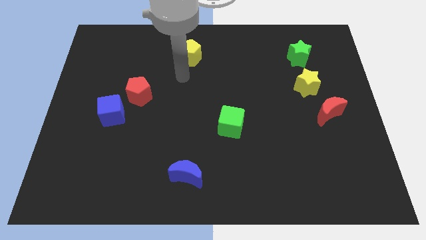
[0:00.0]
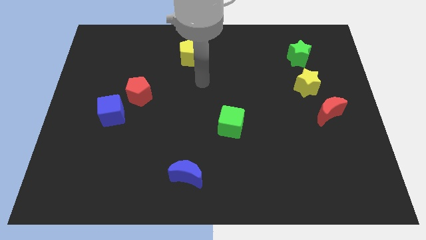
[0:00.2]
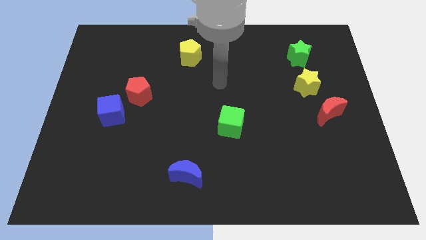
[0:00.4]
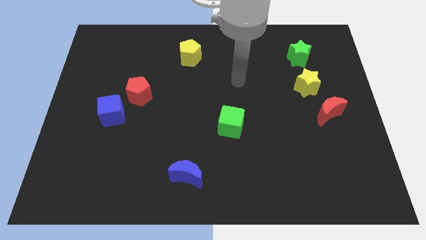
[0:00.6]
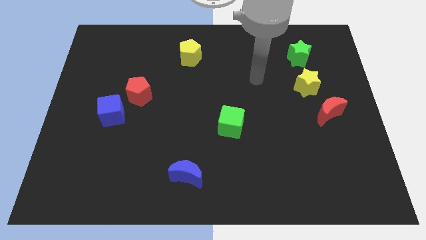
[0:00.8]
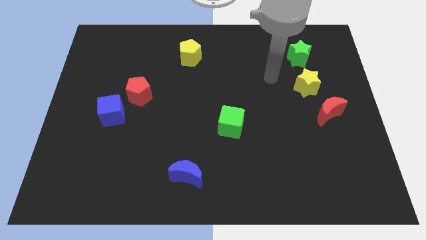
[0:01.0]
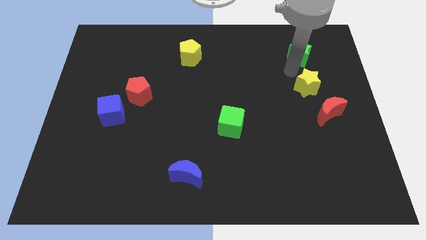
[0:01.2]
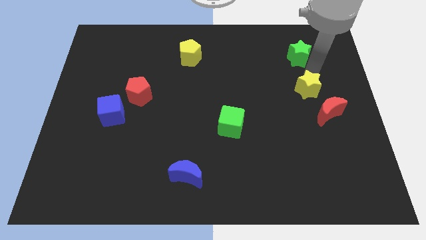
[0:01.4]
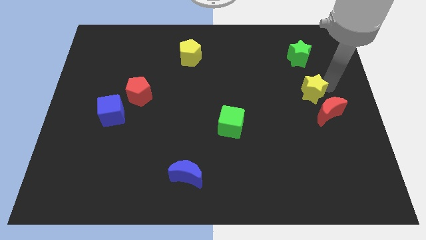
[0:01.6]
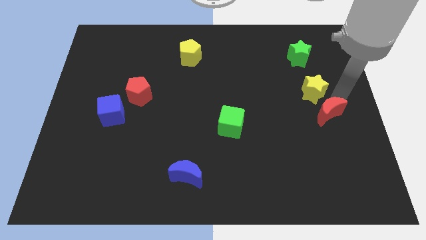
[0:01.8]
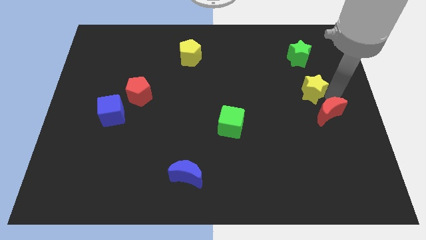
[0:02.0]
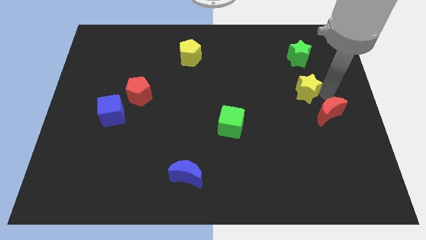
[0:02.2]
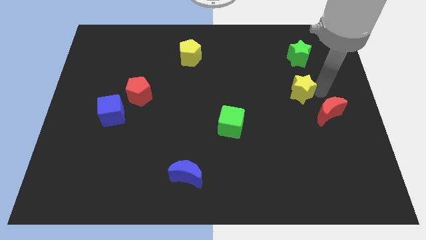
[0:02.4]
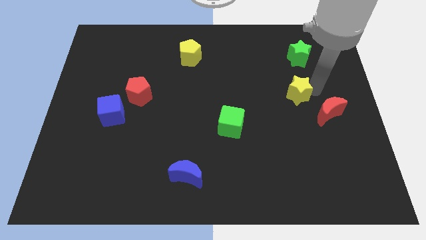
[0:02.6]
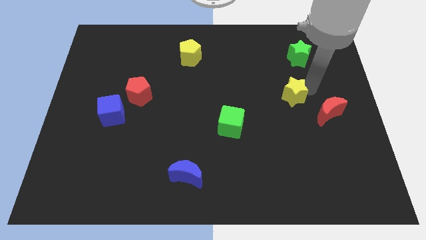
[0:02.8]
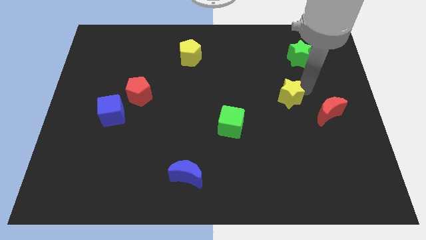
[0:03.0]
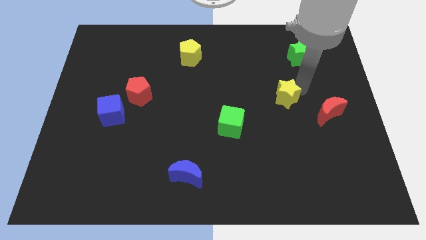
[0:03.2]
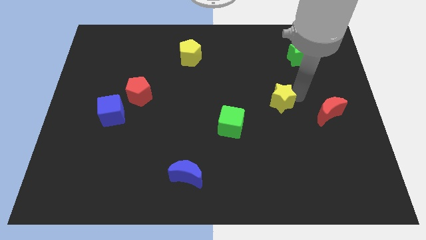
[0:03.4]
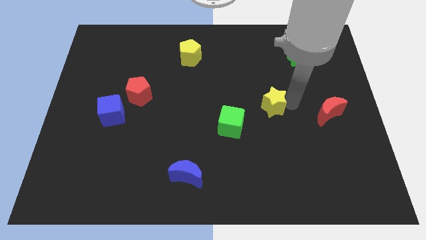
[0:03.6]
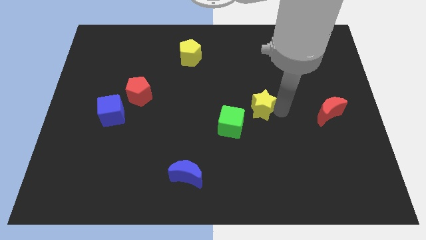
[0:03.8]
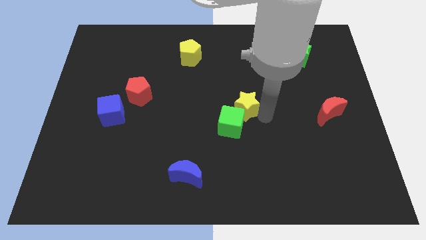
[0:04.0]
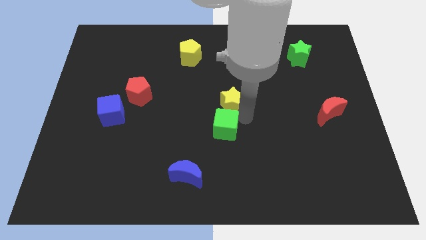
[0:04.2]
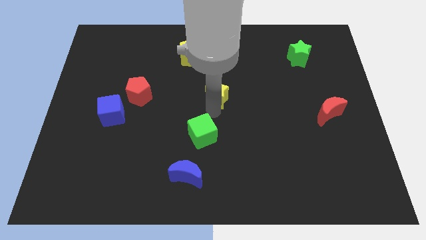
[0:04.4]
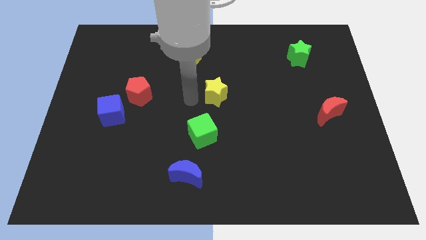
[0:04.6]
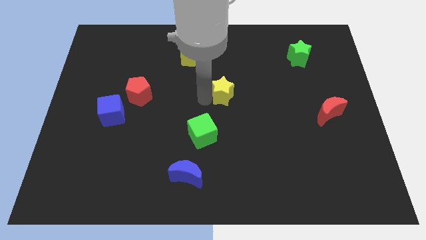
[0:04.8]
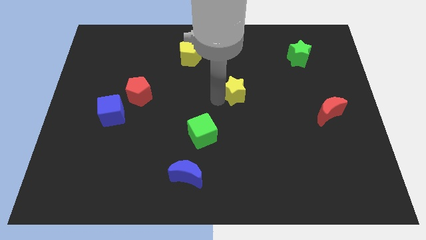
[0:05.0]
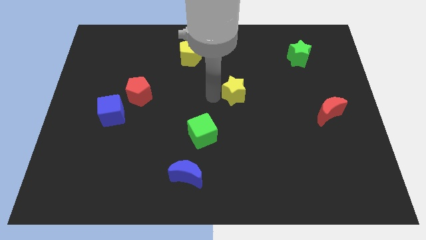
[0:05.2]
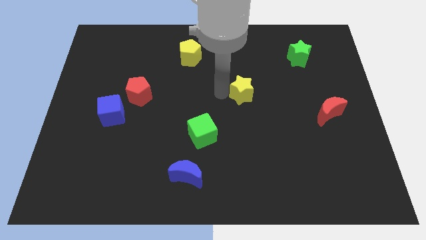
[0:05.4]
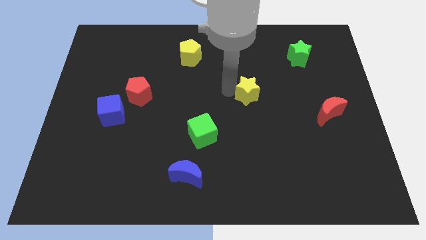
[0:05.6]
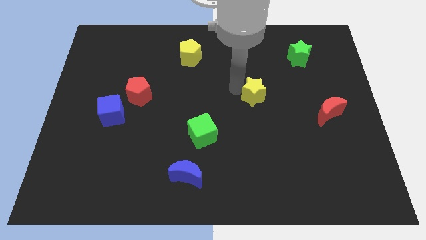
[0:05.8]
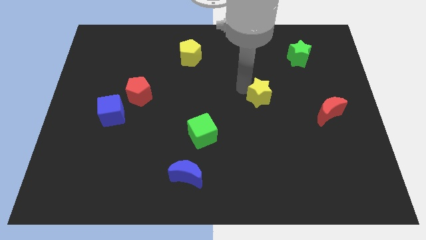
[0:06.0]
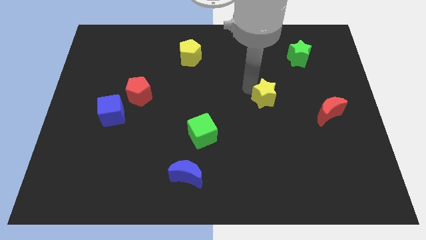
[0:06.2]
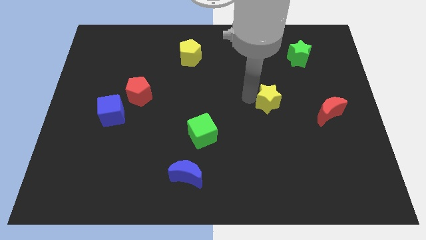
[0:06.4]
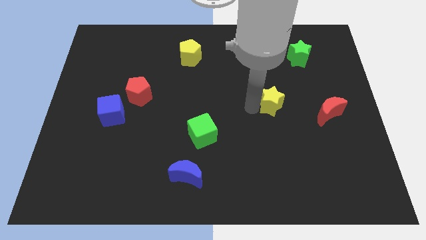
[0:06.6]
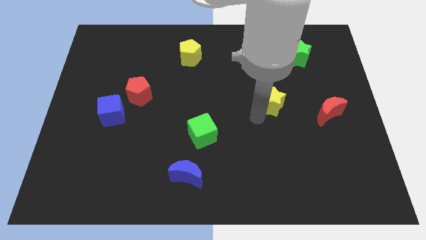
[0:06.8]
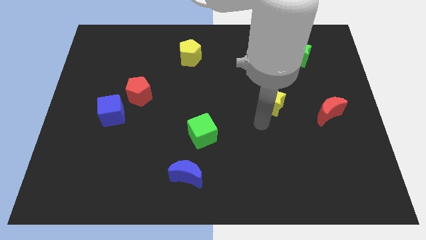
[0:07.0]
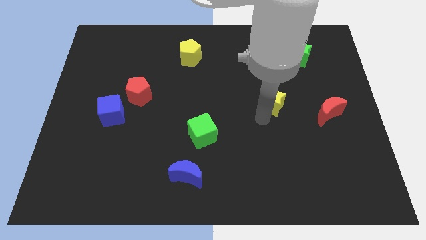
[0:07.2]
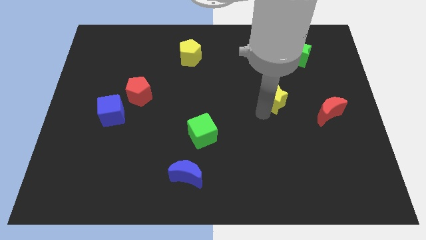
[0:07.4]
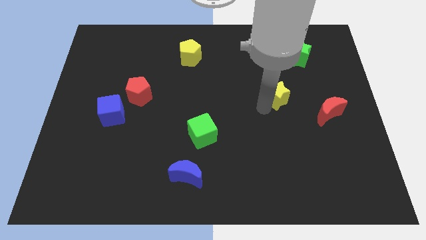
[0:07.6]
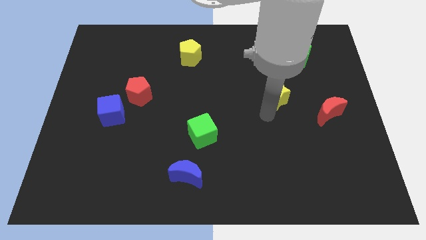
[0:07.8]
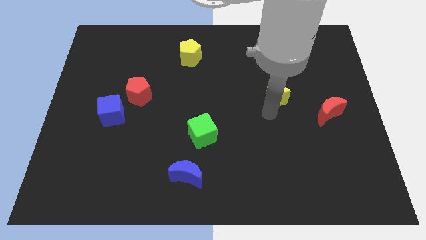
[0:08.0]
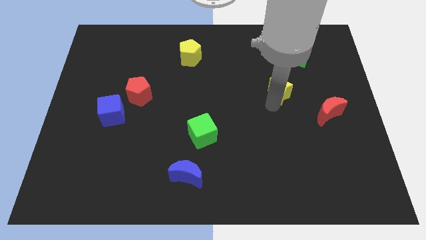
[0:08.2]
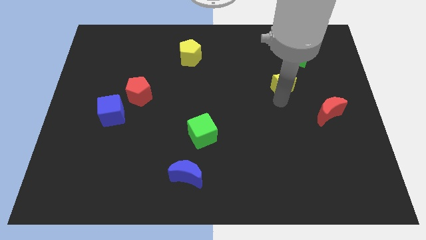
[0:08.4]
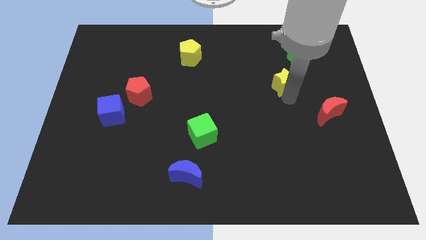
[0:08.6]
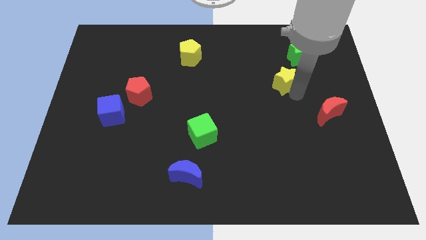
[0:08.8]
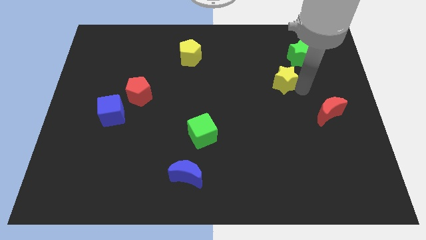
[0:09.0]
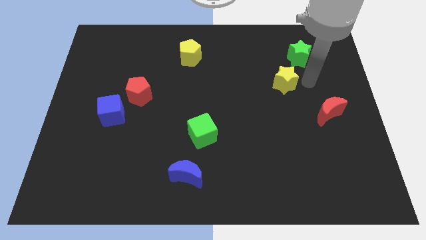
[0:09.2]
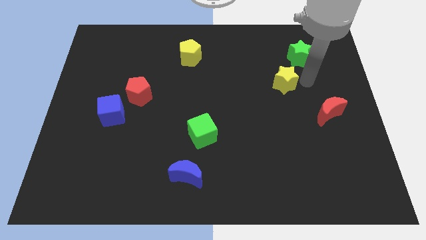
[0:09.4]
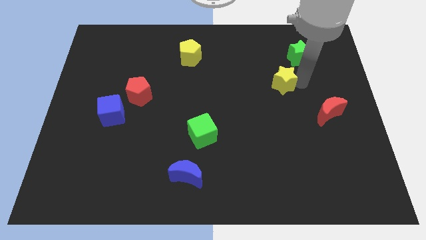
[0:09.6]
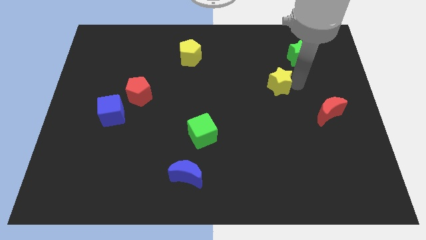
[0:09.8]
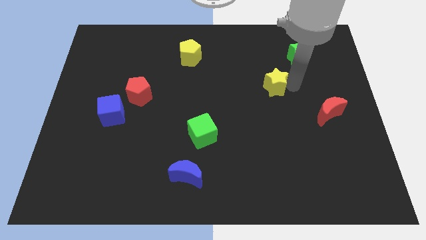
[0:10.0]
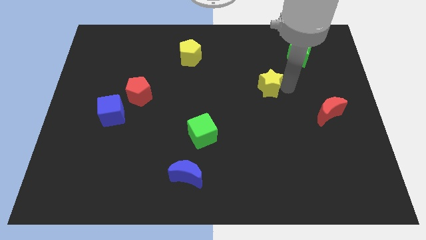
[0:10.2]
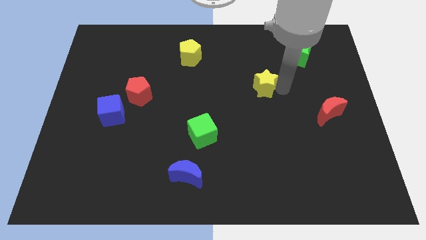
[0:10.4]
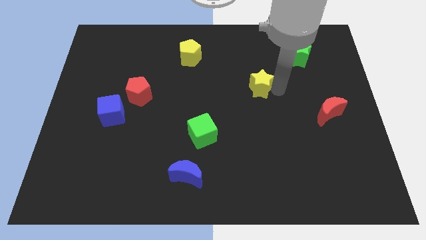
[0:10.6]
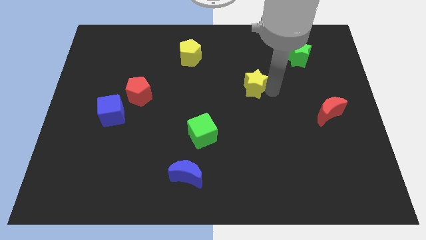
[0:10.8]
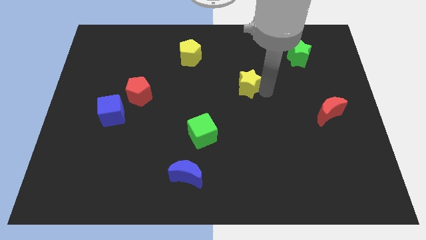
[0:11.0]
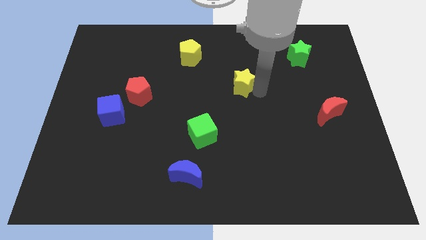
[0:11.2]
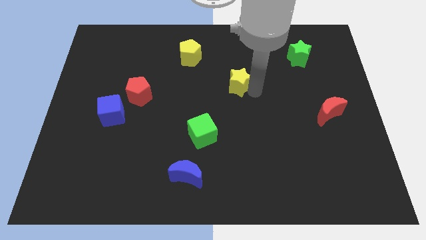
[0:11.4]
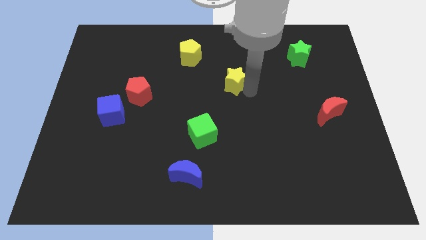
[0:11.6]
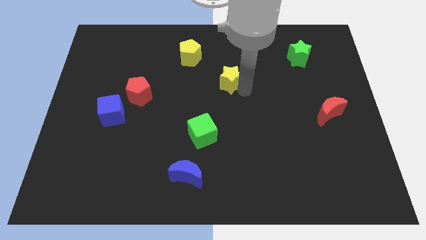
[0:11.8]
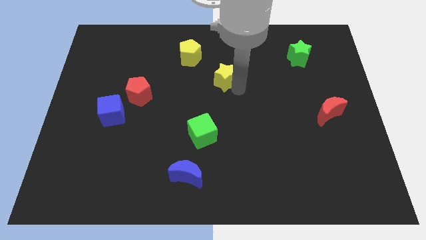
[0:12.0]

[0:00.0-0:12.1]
put the yellow star to the bottom right side of the yellow pentagon

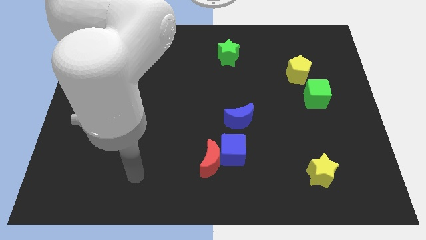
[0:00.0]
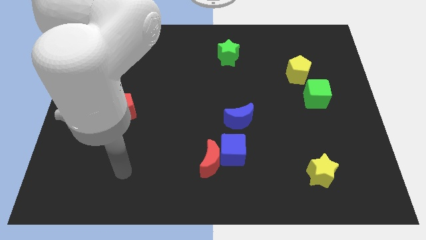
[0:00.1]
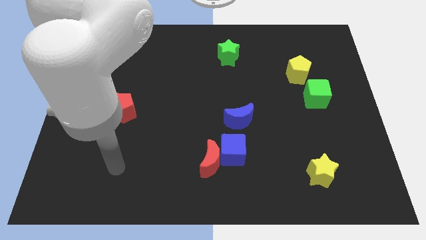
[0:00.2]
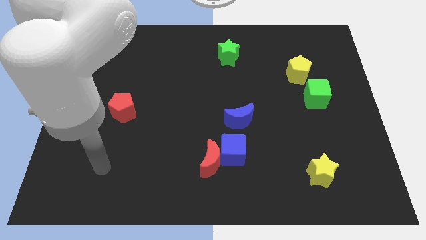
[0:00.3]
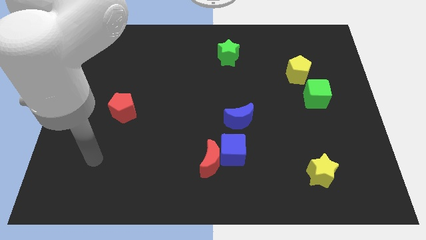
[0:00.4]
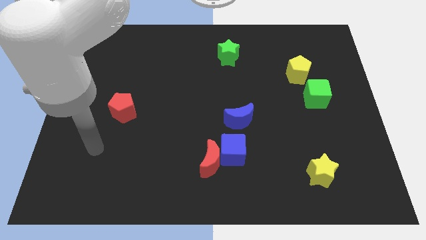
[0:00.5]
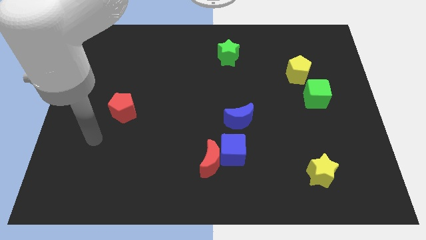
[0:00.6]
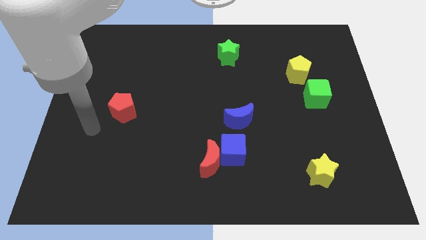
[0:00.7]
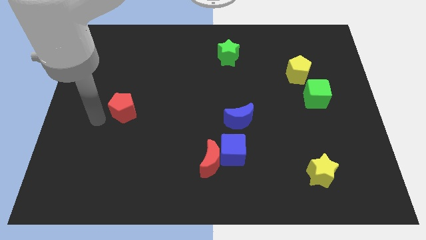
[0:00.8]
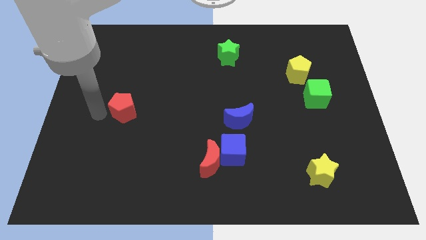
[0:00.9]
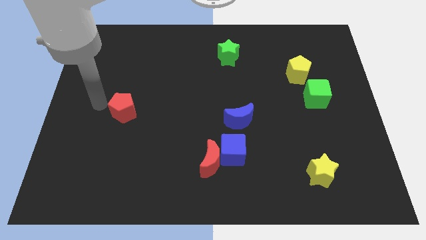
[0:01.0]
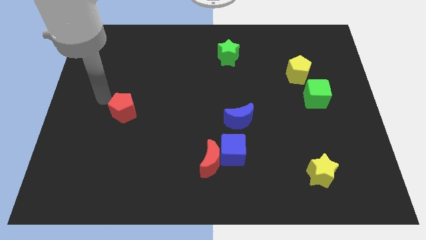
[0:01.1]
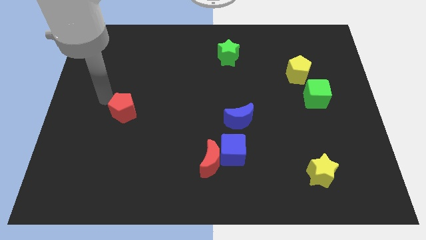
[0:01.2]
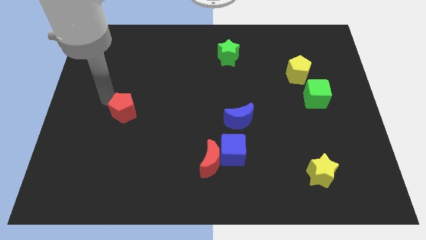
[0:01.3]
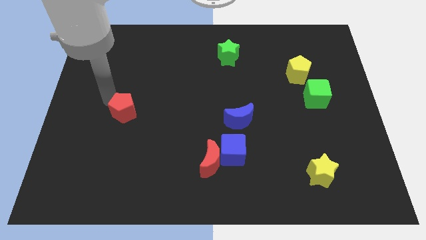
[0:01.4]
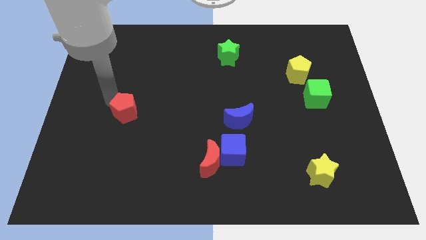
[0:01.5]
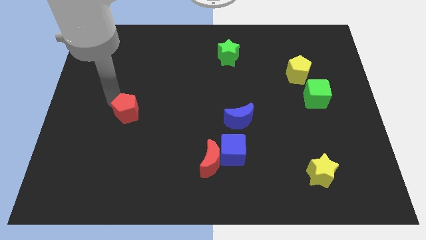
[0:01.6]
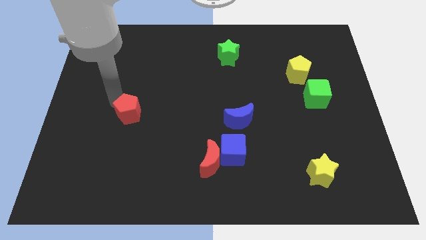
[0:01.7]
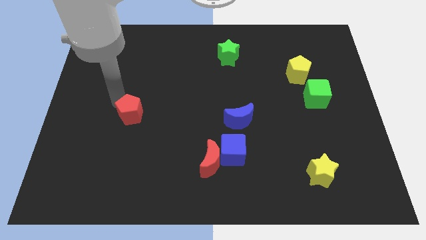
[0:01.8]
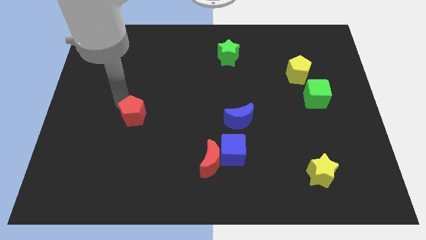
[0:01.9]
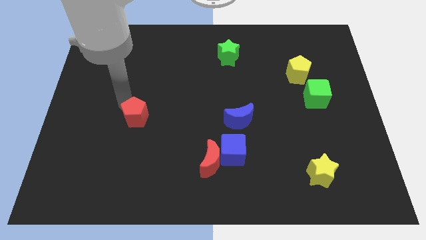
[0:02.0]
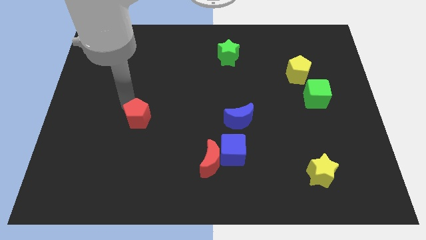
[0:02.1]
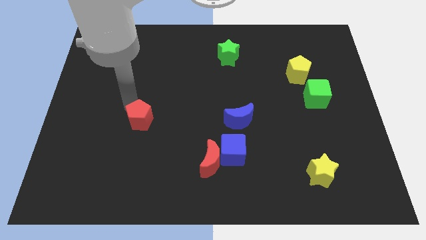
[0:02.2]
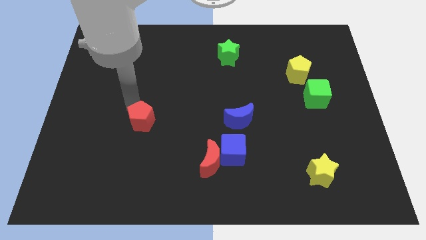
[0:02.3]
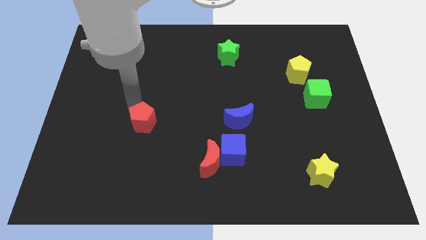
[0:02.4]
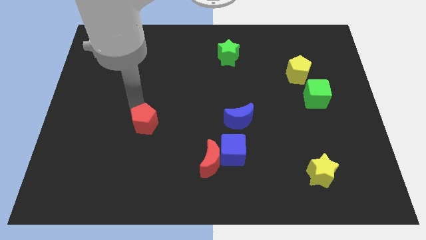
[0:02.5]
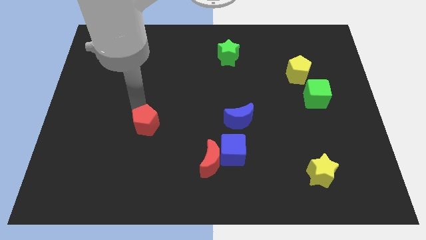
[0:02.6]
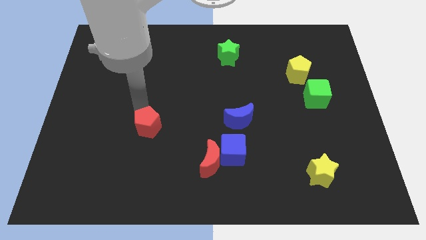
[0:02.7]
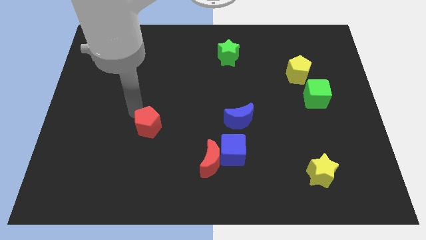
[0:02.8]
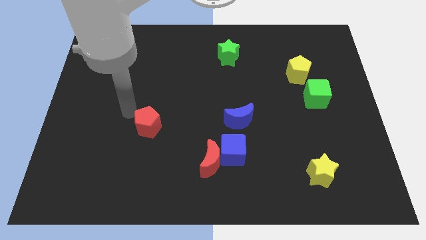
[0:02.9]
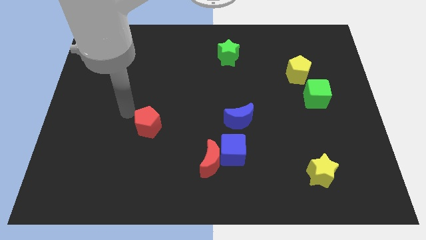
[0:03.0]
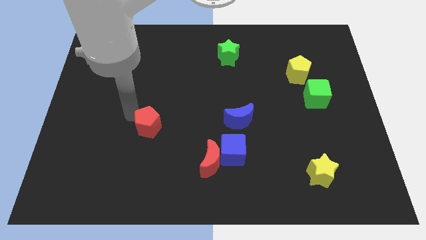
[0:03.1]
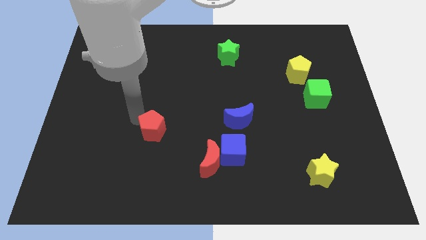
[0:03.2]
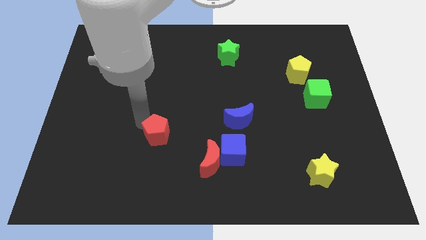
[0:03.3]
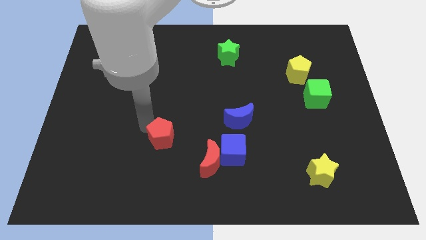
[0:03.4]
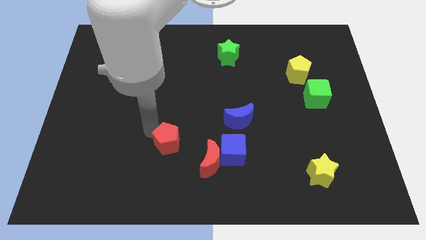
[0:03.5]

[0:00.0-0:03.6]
slide the red pentagon to the top left of the red moon
